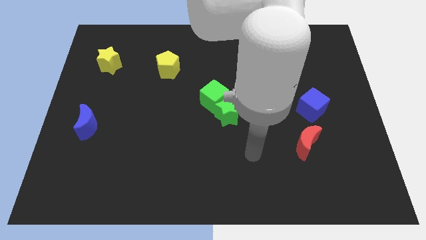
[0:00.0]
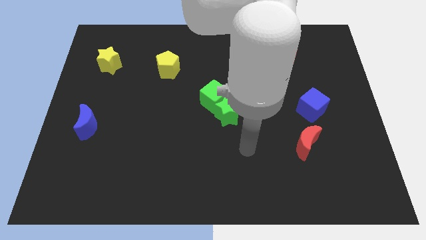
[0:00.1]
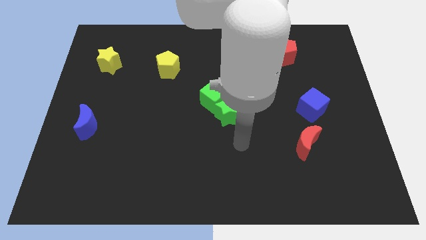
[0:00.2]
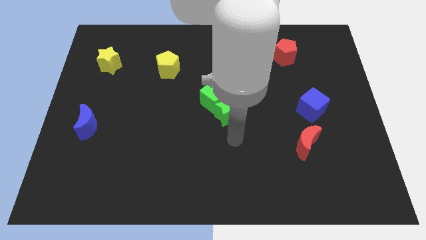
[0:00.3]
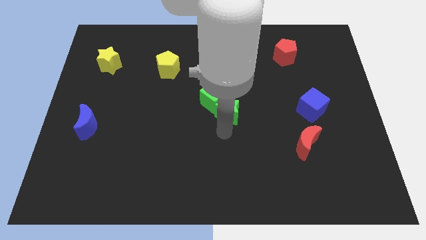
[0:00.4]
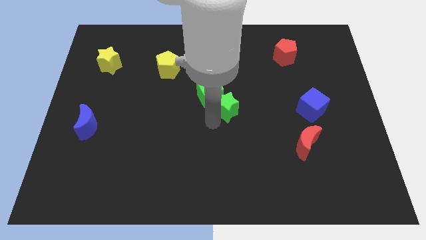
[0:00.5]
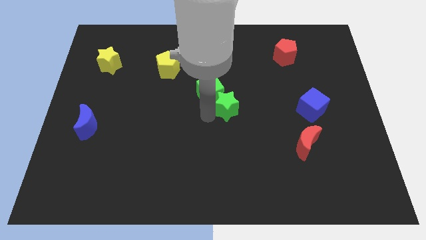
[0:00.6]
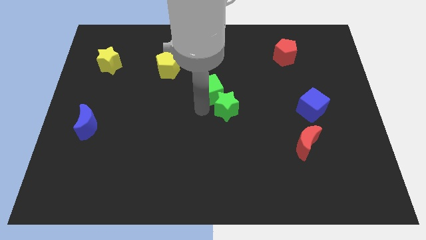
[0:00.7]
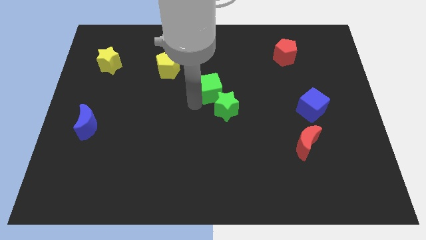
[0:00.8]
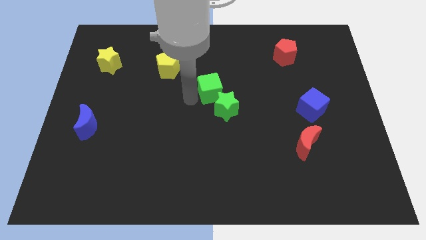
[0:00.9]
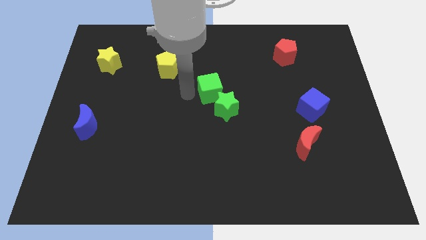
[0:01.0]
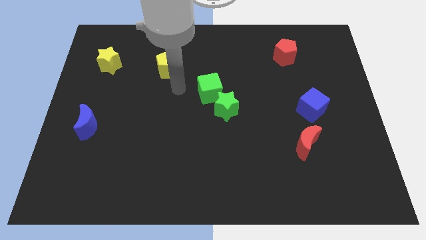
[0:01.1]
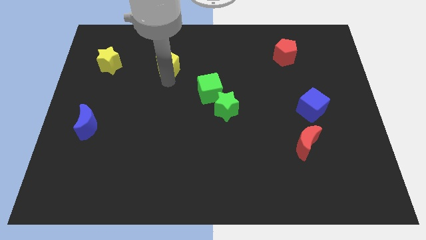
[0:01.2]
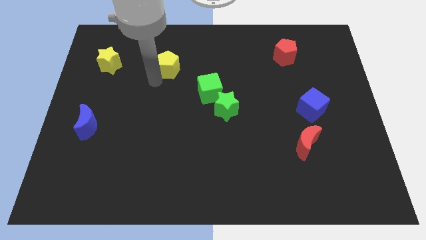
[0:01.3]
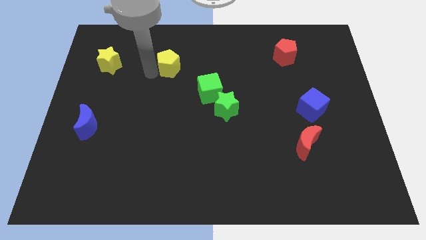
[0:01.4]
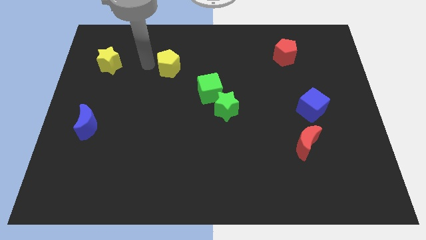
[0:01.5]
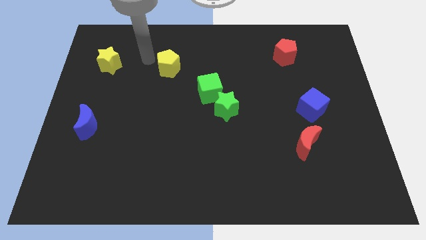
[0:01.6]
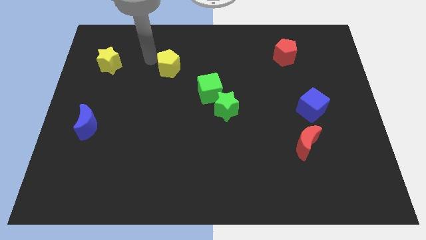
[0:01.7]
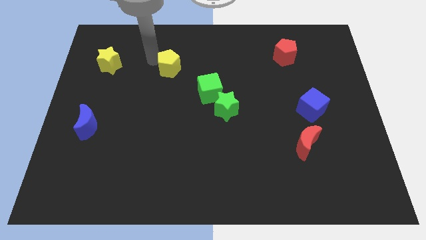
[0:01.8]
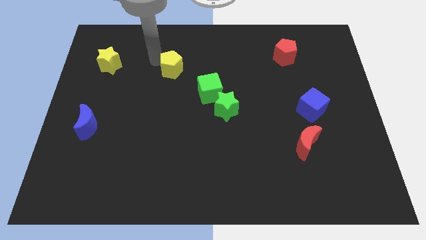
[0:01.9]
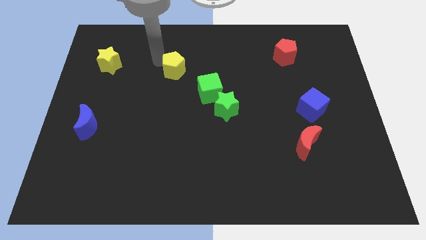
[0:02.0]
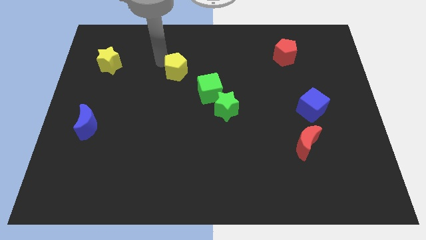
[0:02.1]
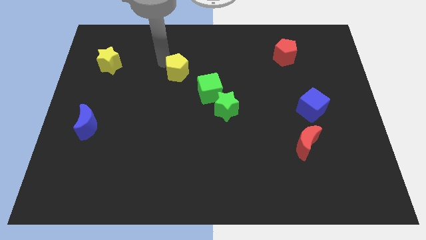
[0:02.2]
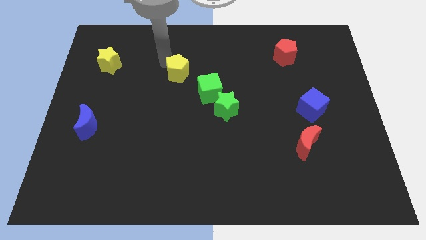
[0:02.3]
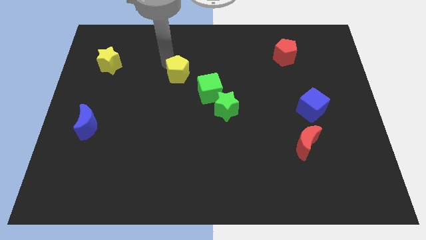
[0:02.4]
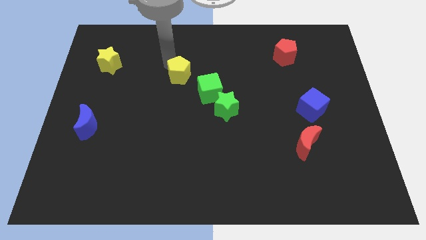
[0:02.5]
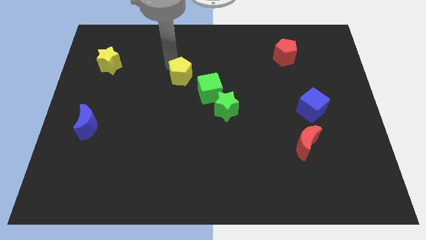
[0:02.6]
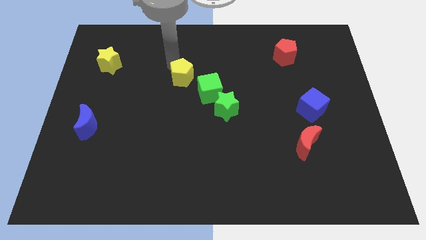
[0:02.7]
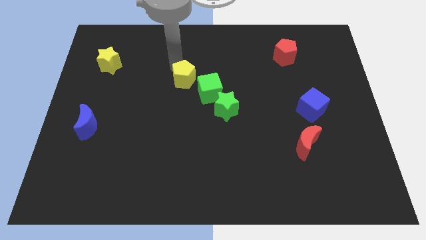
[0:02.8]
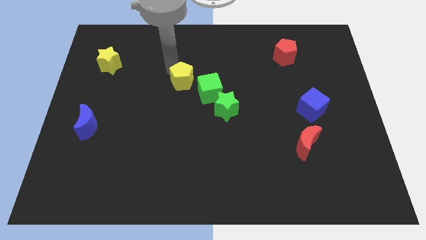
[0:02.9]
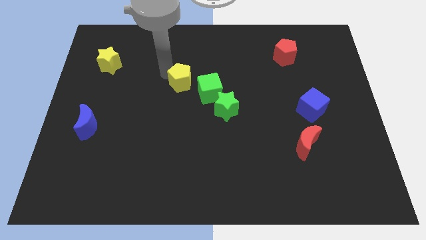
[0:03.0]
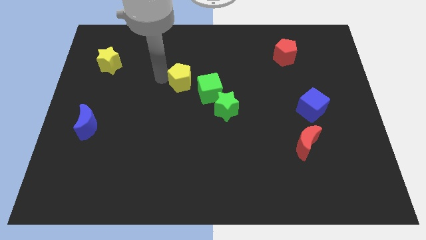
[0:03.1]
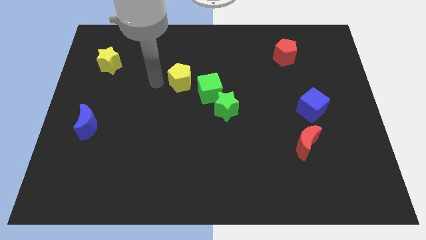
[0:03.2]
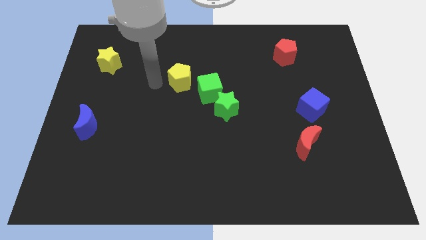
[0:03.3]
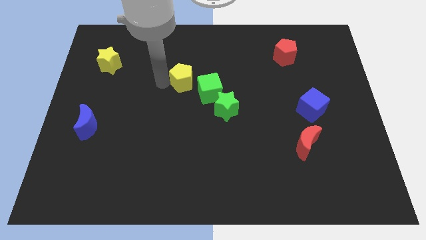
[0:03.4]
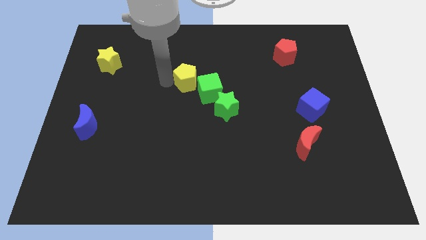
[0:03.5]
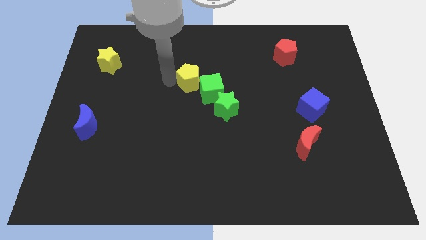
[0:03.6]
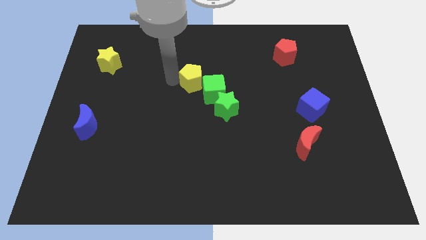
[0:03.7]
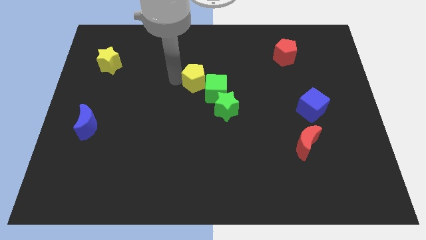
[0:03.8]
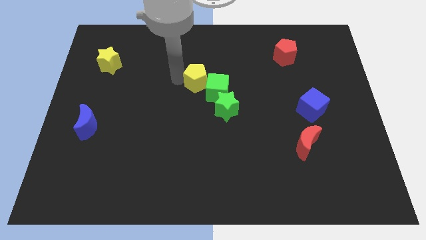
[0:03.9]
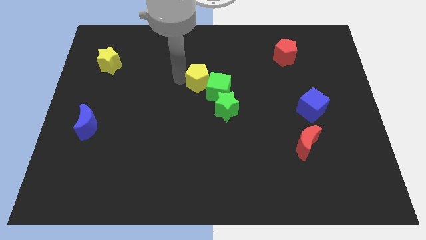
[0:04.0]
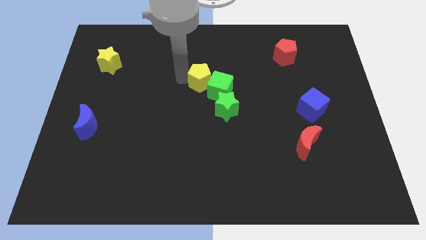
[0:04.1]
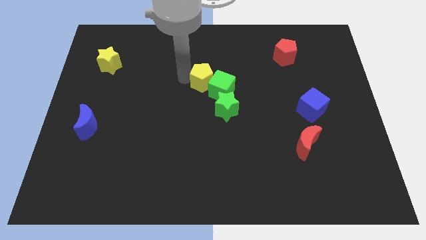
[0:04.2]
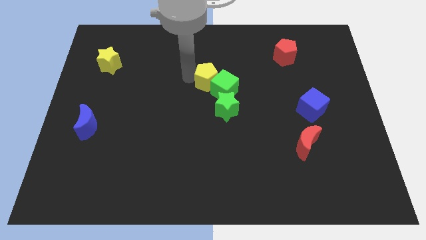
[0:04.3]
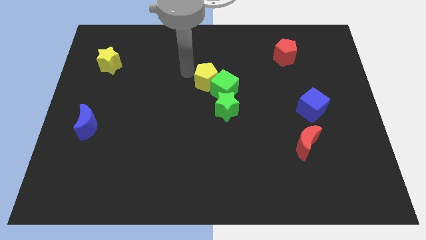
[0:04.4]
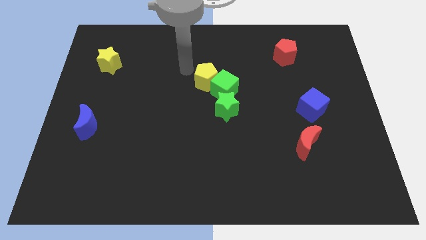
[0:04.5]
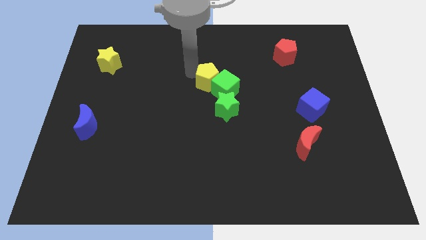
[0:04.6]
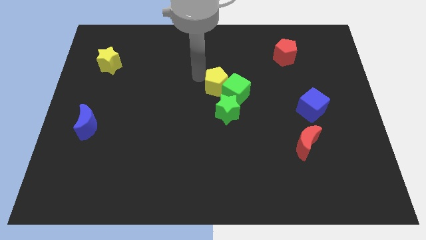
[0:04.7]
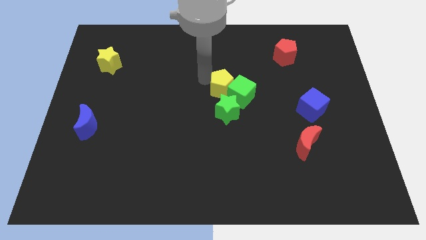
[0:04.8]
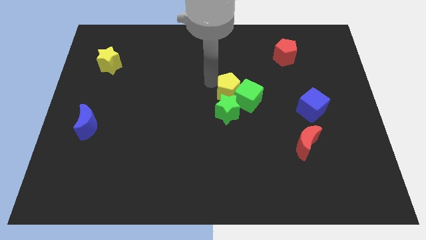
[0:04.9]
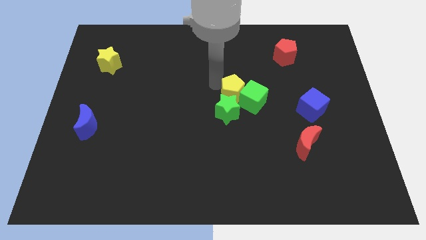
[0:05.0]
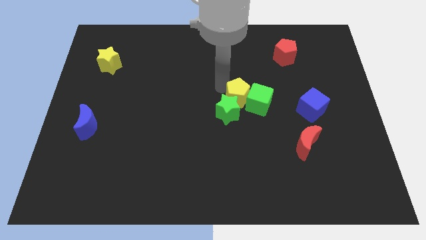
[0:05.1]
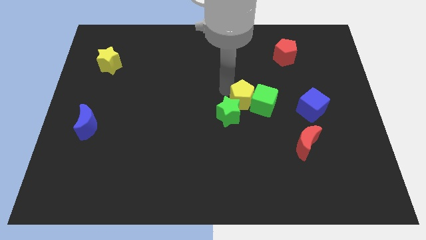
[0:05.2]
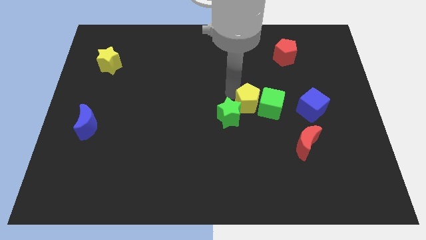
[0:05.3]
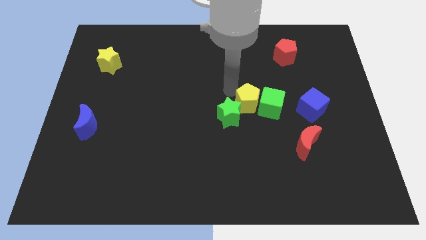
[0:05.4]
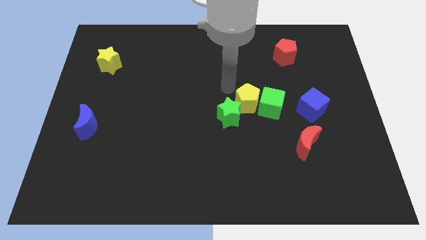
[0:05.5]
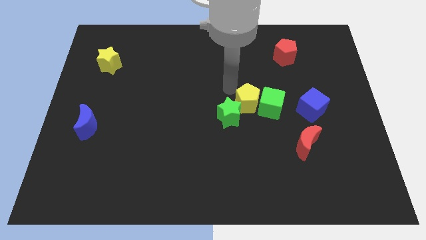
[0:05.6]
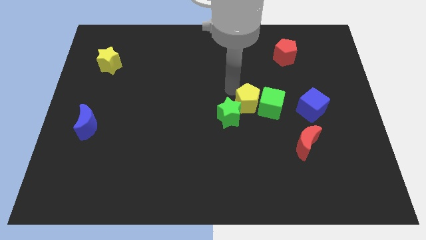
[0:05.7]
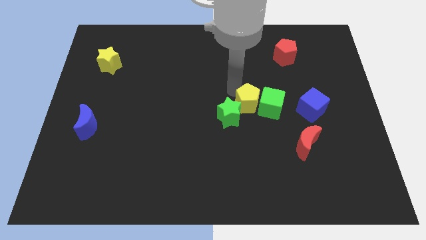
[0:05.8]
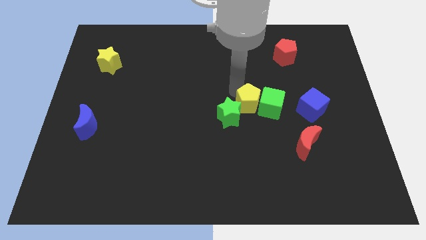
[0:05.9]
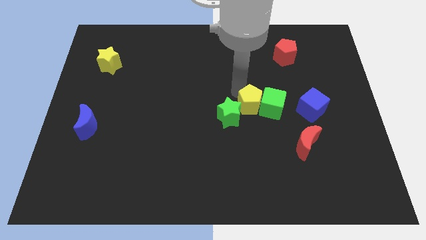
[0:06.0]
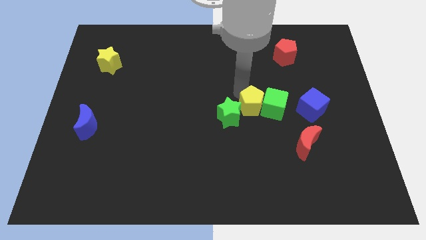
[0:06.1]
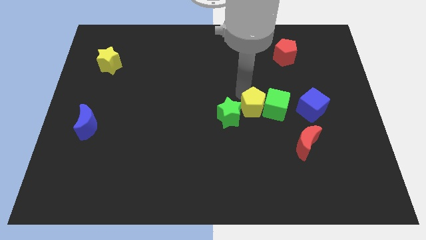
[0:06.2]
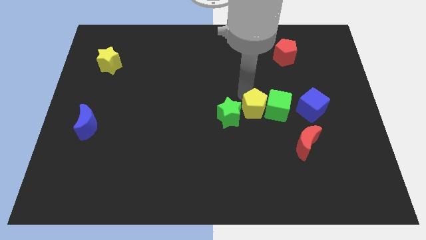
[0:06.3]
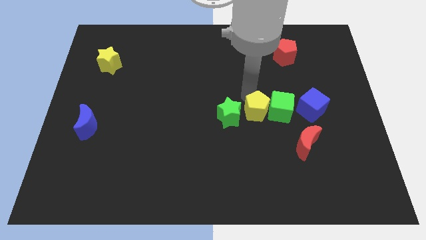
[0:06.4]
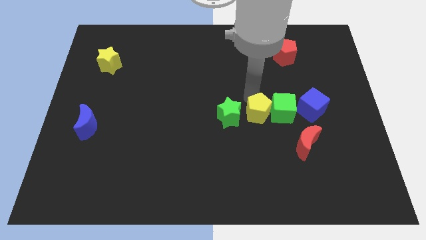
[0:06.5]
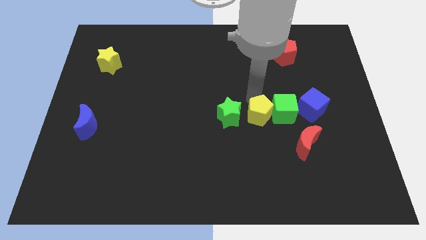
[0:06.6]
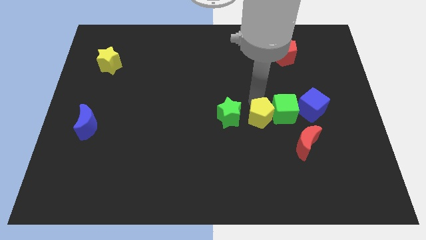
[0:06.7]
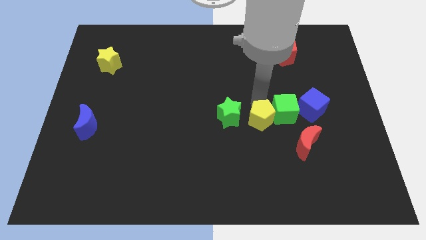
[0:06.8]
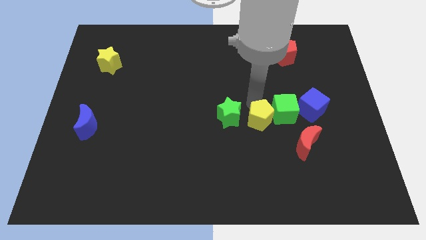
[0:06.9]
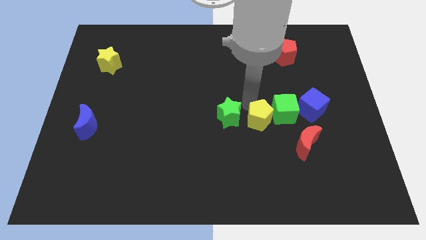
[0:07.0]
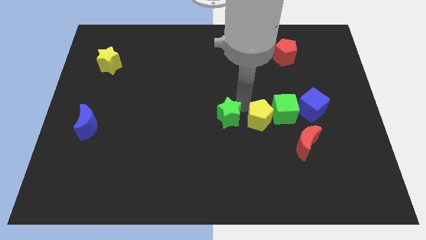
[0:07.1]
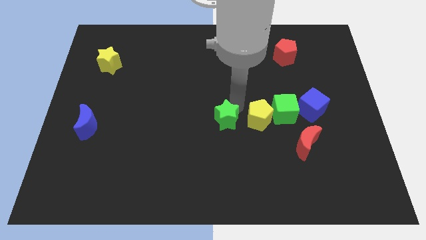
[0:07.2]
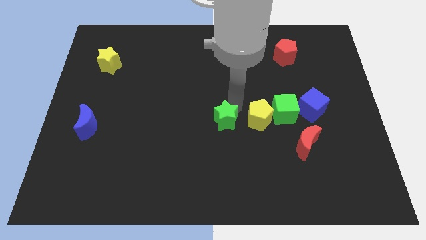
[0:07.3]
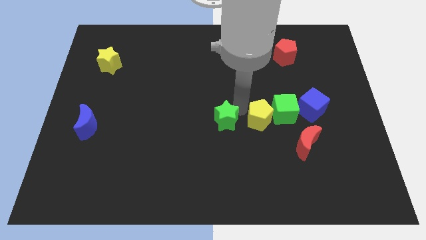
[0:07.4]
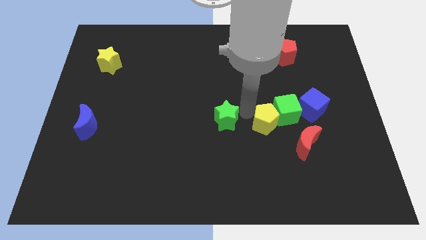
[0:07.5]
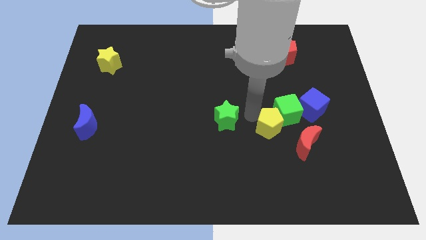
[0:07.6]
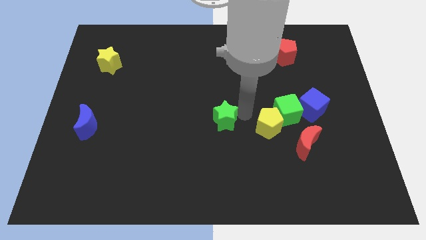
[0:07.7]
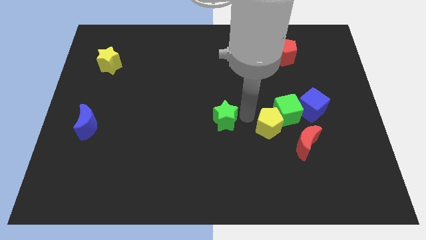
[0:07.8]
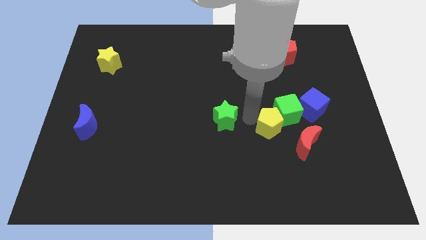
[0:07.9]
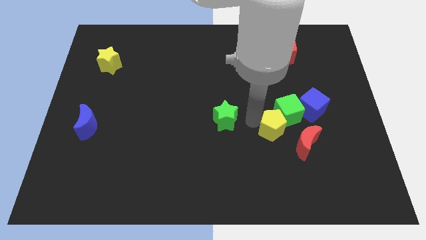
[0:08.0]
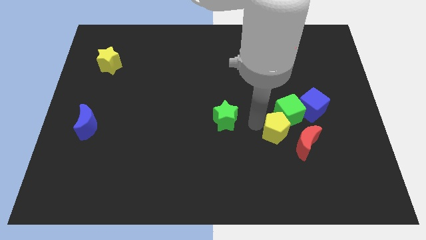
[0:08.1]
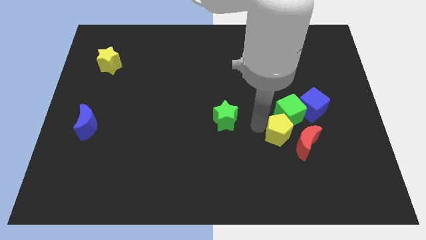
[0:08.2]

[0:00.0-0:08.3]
slide the yellow pentagon next to the red moon
